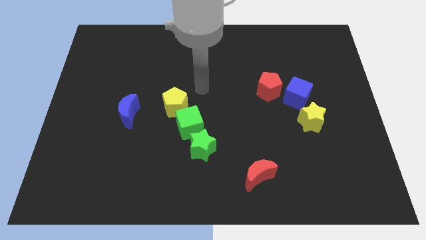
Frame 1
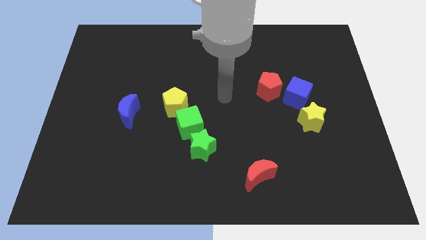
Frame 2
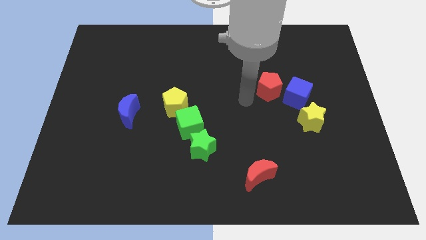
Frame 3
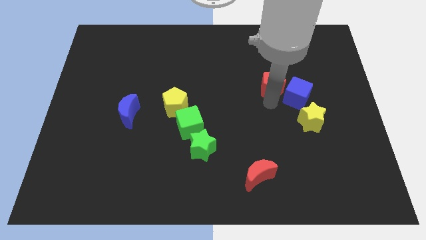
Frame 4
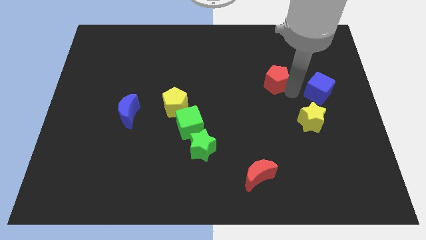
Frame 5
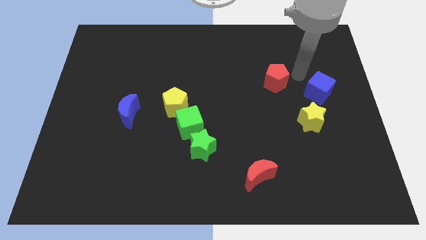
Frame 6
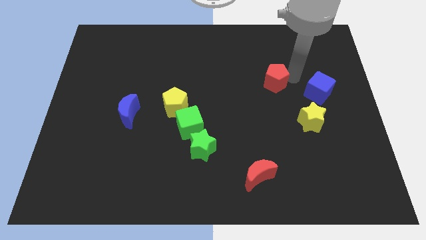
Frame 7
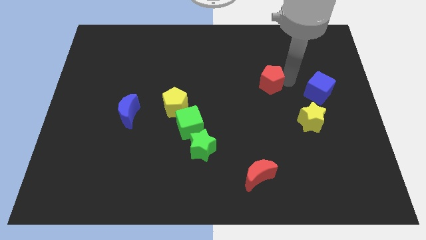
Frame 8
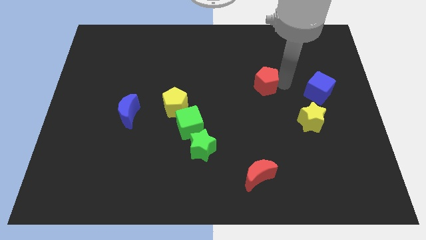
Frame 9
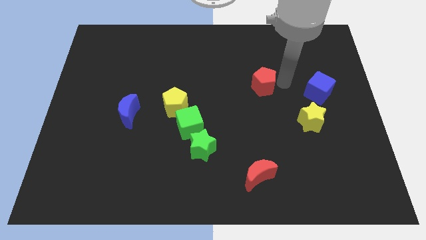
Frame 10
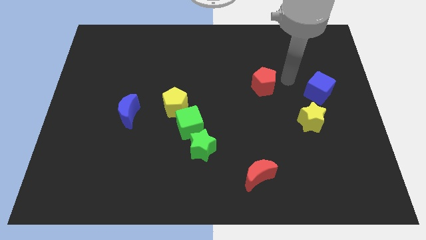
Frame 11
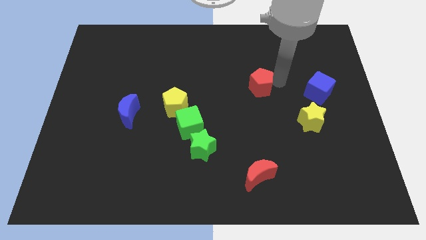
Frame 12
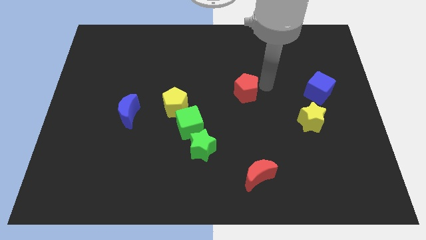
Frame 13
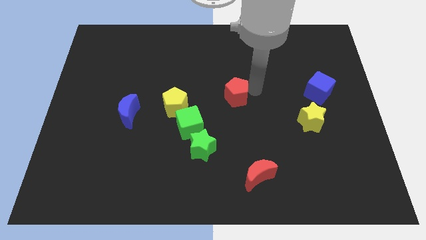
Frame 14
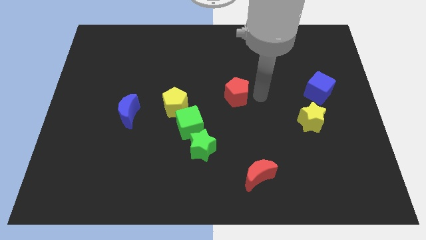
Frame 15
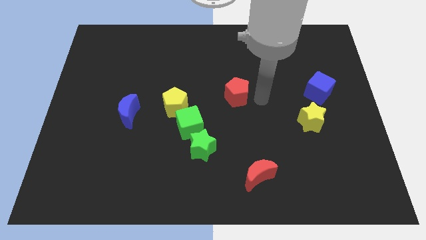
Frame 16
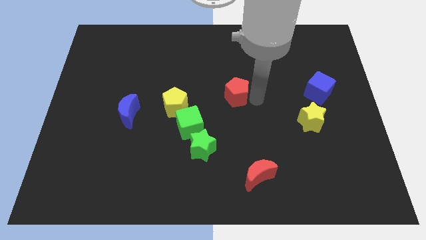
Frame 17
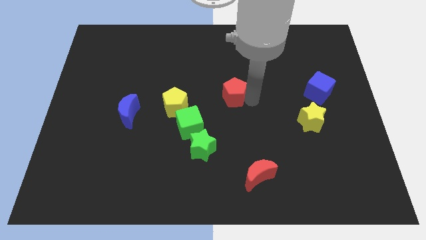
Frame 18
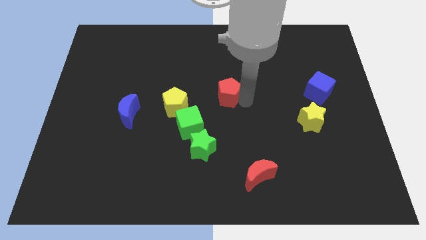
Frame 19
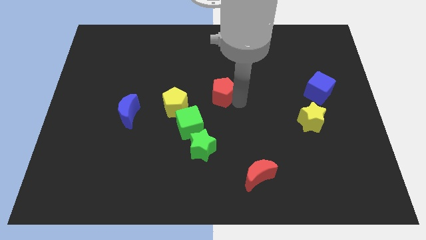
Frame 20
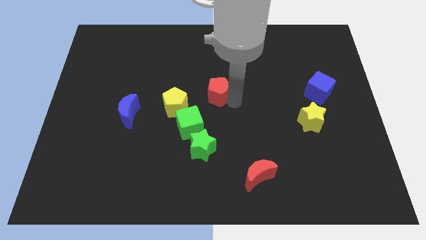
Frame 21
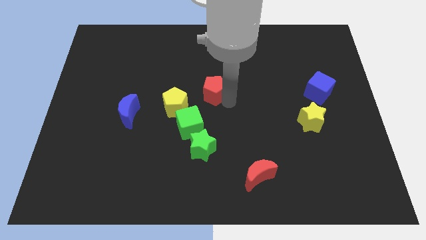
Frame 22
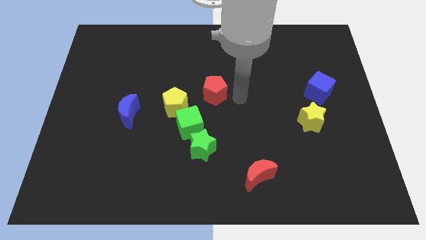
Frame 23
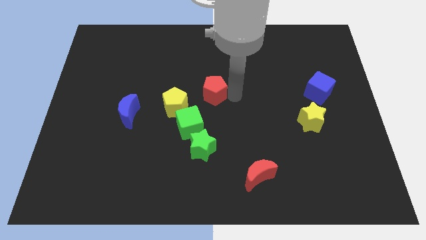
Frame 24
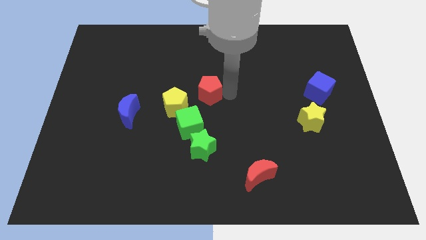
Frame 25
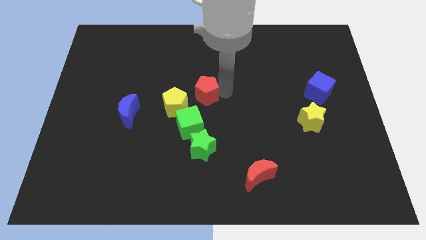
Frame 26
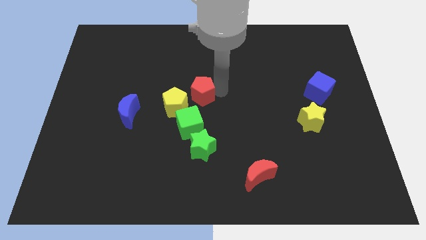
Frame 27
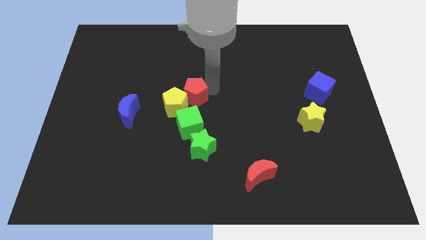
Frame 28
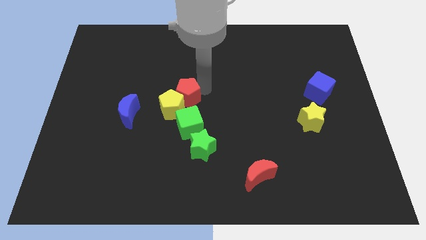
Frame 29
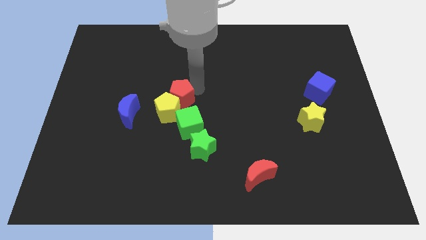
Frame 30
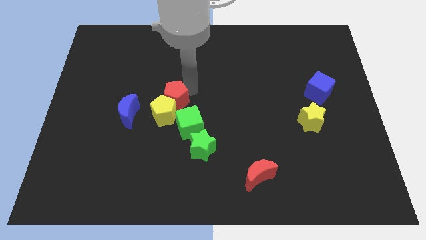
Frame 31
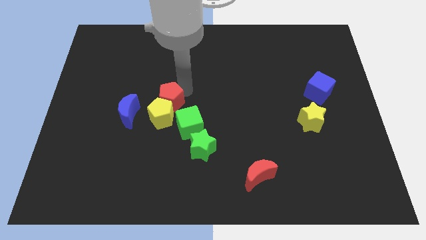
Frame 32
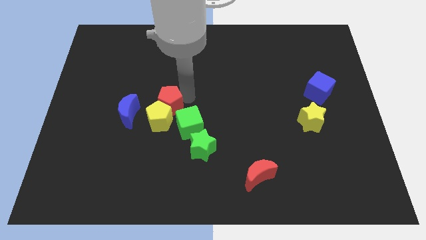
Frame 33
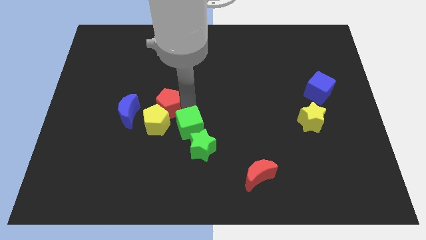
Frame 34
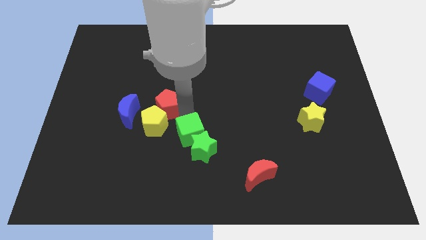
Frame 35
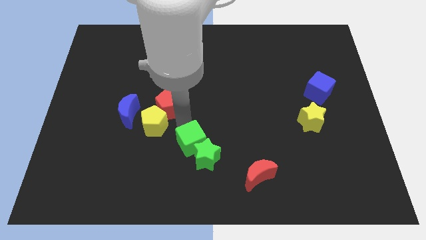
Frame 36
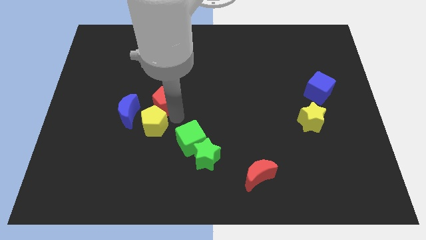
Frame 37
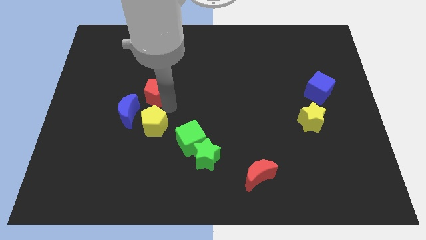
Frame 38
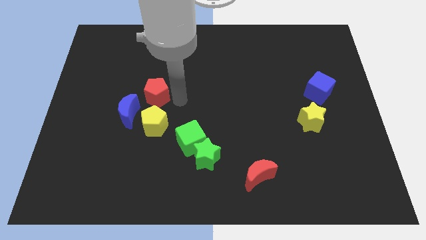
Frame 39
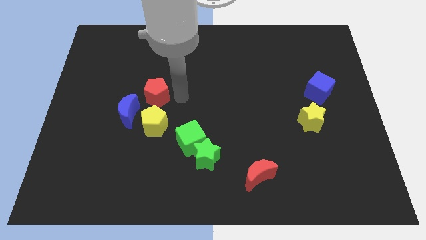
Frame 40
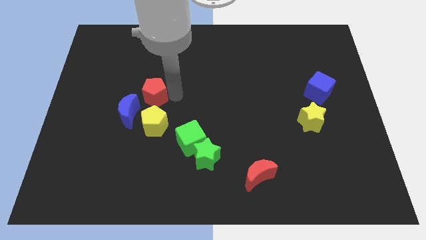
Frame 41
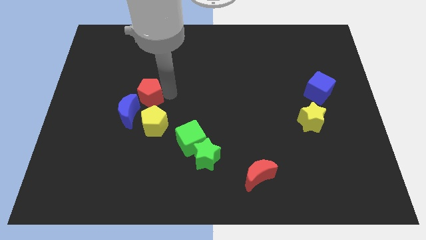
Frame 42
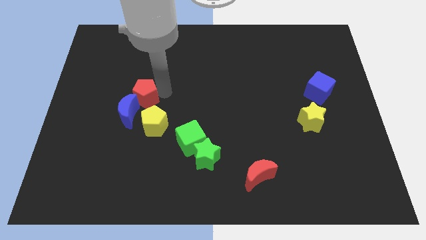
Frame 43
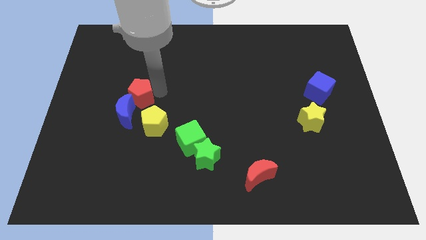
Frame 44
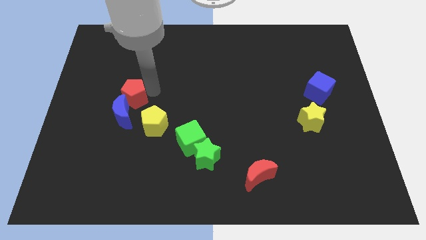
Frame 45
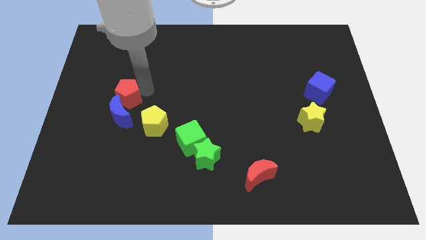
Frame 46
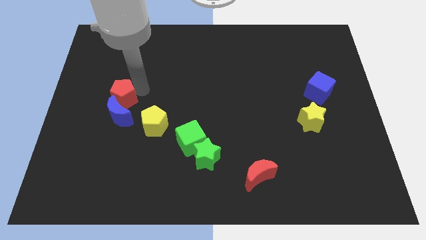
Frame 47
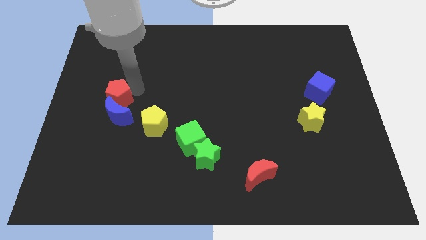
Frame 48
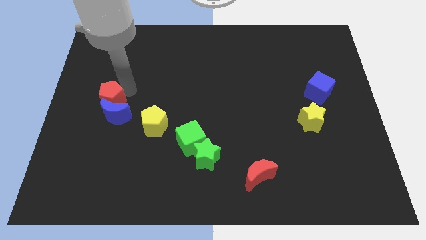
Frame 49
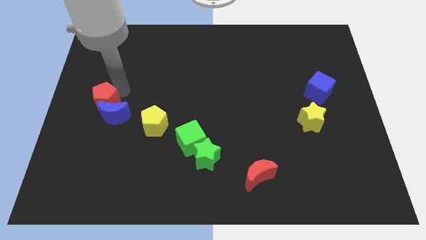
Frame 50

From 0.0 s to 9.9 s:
put the red pentagon to the left side

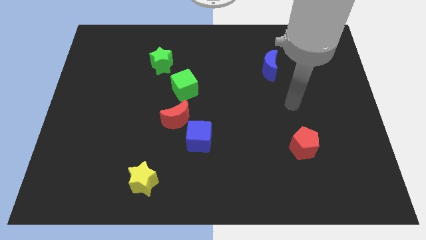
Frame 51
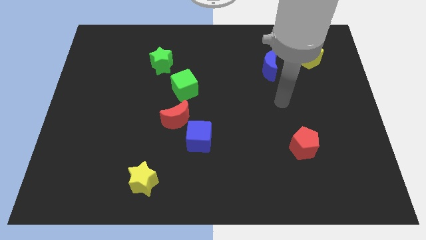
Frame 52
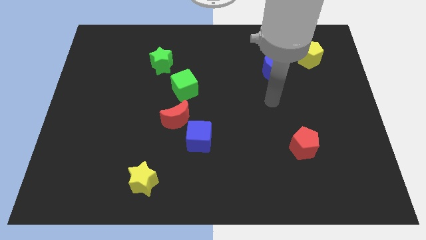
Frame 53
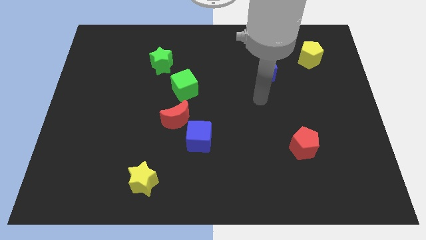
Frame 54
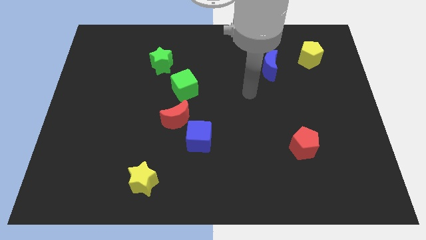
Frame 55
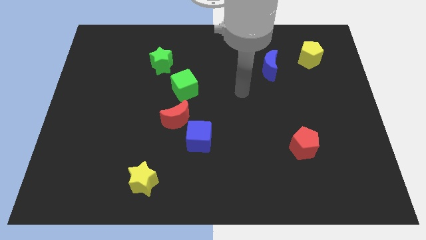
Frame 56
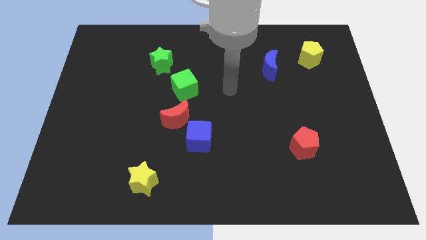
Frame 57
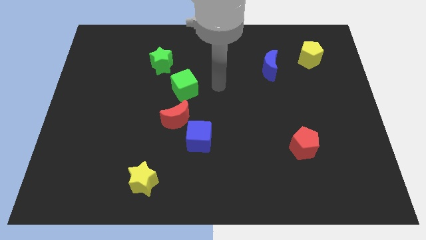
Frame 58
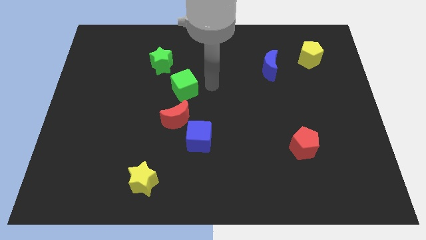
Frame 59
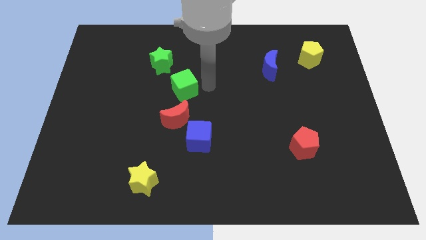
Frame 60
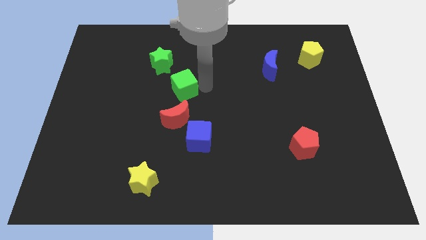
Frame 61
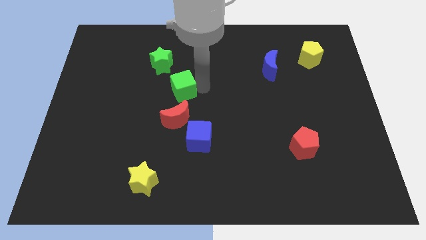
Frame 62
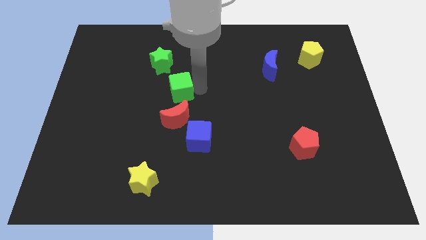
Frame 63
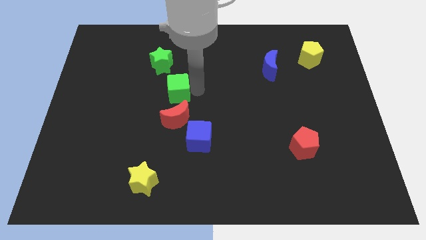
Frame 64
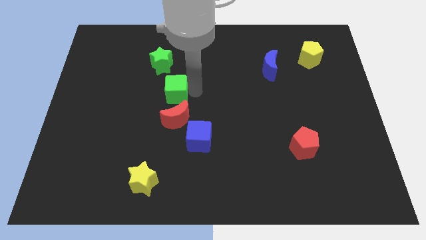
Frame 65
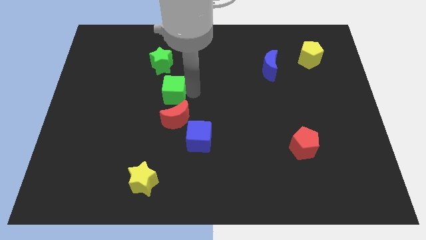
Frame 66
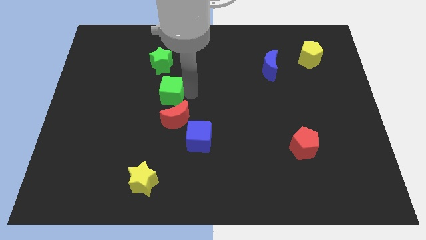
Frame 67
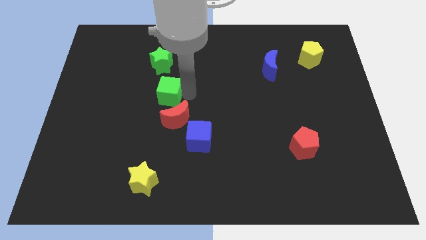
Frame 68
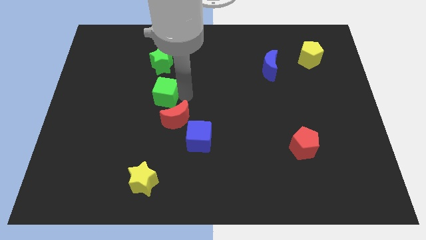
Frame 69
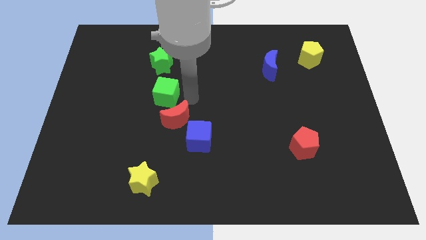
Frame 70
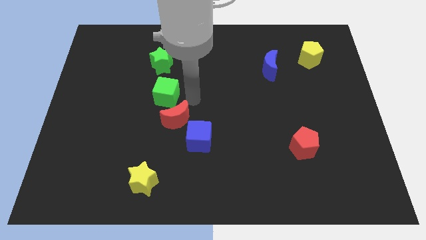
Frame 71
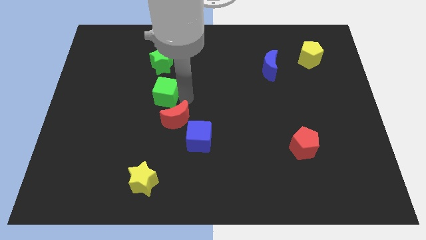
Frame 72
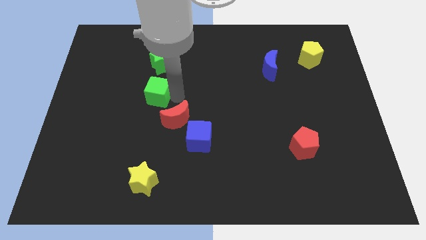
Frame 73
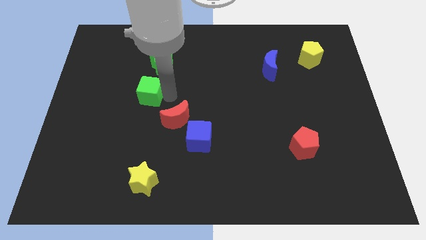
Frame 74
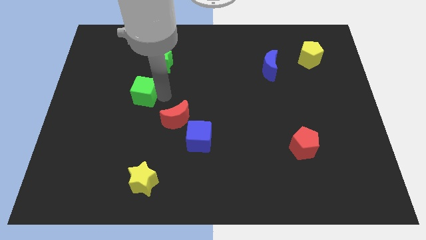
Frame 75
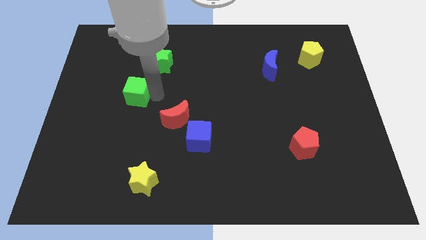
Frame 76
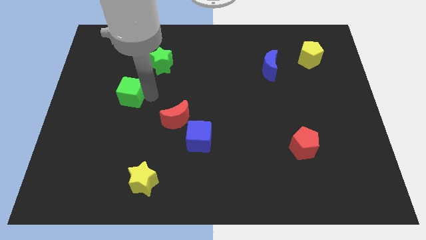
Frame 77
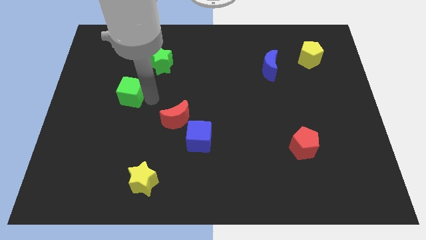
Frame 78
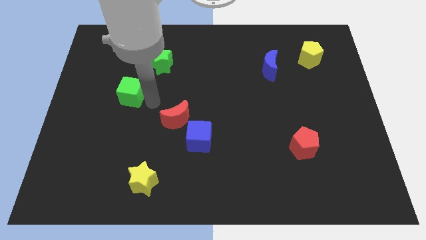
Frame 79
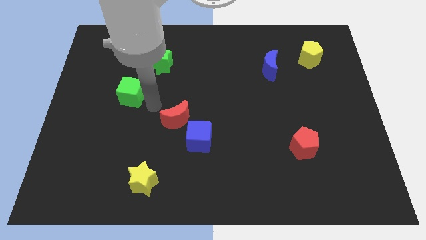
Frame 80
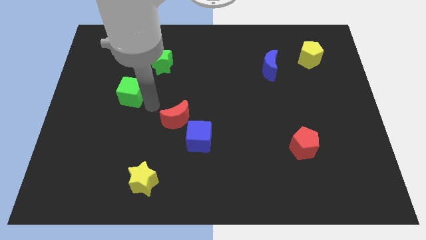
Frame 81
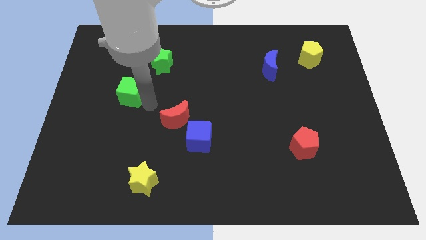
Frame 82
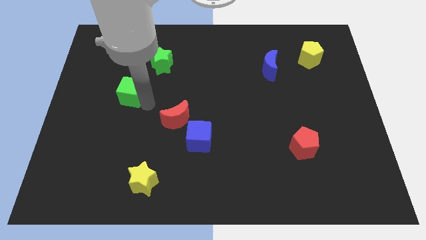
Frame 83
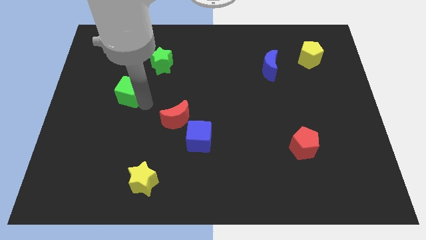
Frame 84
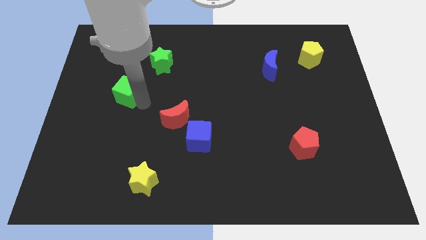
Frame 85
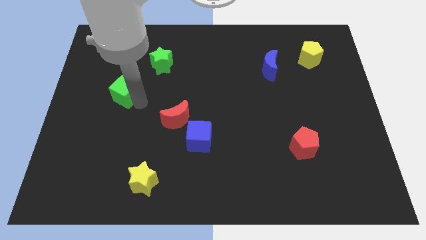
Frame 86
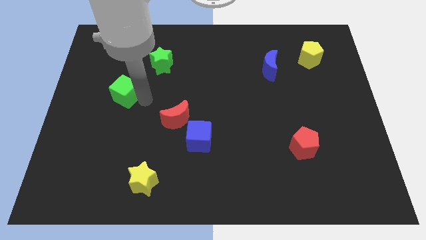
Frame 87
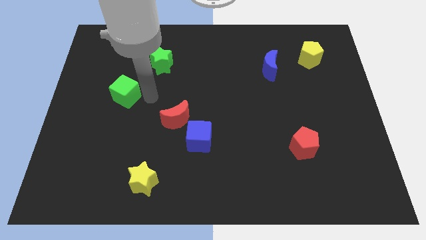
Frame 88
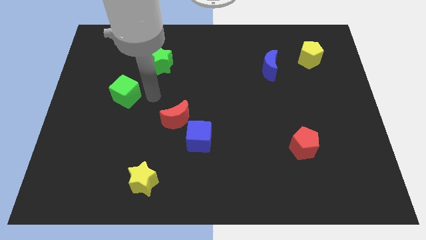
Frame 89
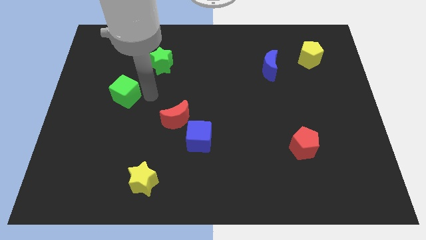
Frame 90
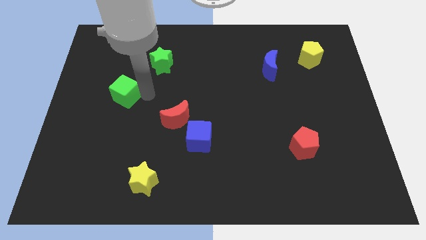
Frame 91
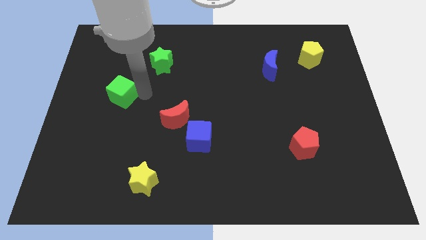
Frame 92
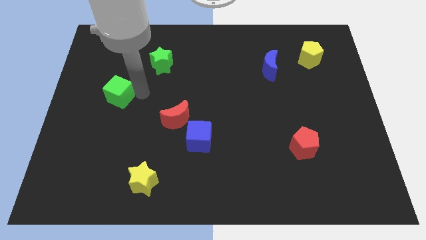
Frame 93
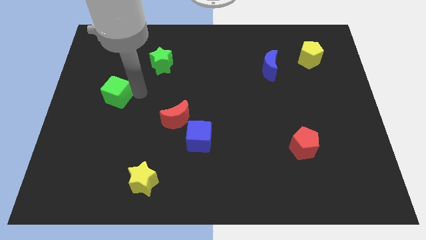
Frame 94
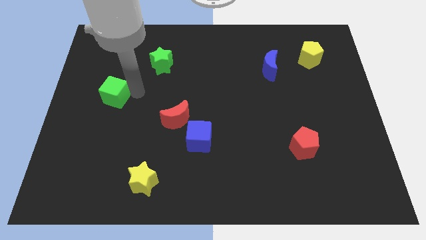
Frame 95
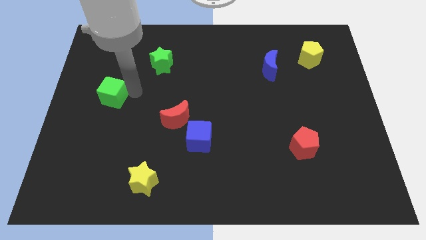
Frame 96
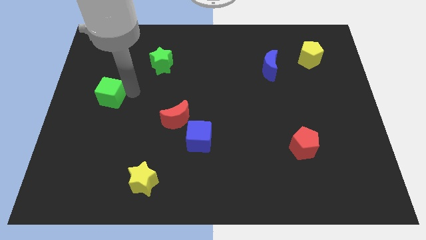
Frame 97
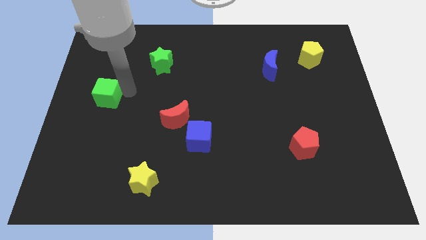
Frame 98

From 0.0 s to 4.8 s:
slide the green cube to the center left
